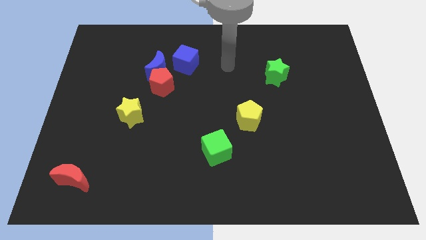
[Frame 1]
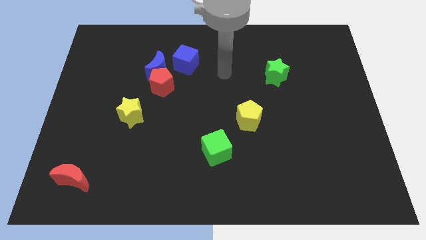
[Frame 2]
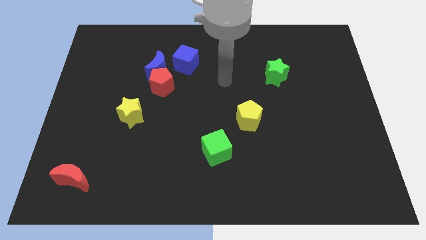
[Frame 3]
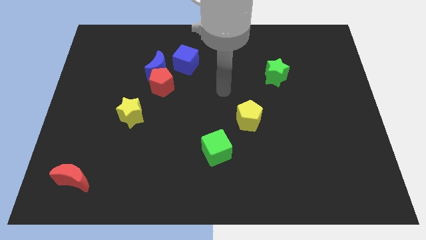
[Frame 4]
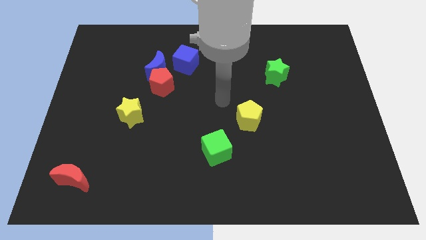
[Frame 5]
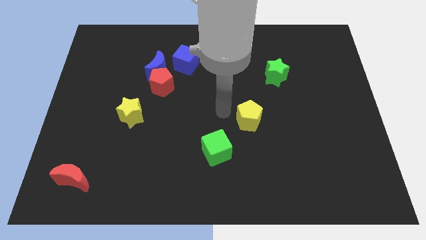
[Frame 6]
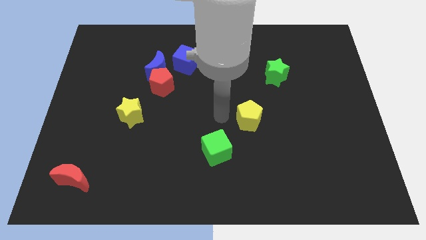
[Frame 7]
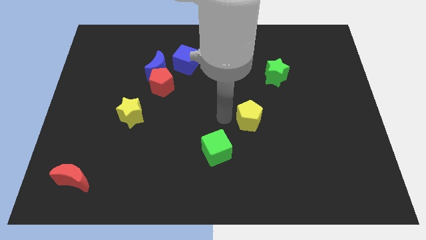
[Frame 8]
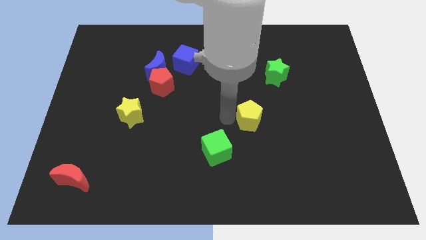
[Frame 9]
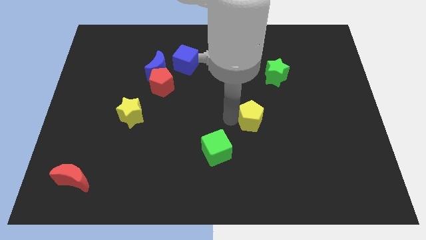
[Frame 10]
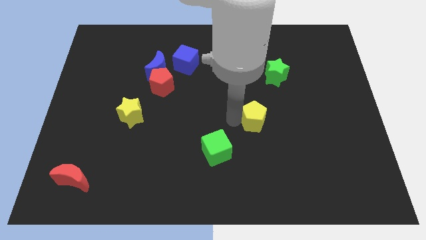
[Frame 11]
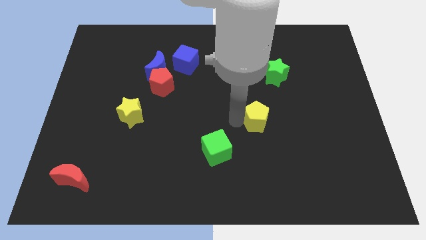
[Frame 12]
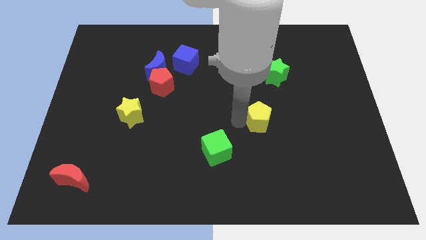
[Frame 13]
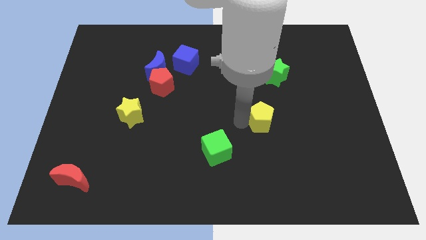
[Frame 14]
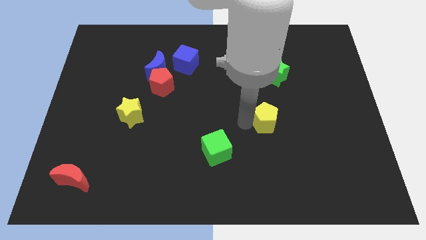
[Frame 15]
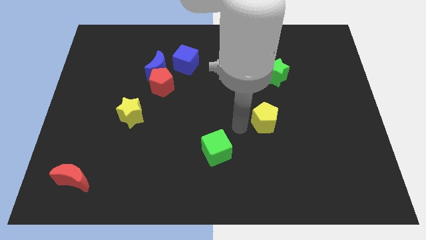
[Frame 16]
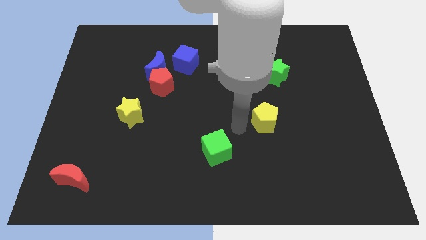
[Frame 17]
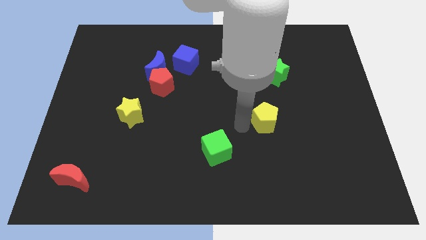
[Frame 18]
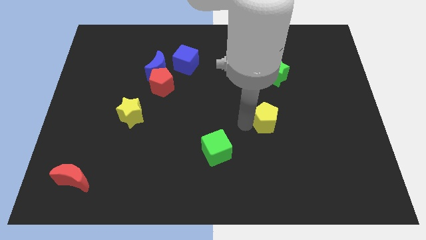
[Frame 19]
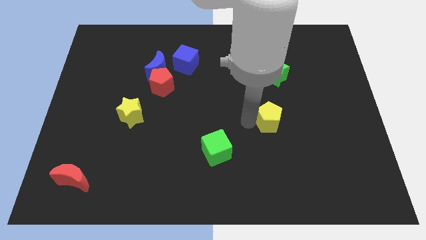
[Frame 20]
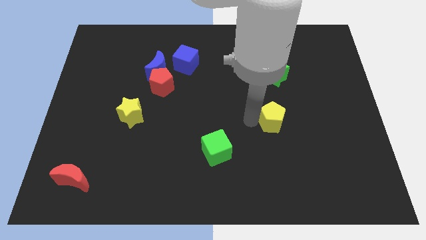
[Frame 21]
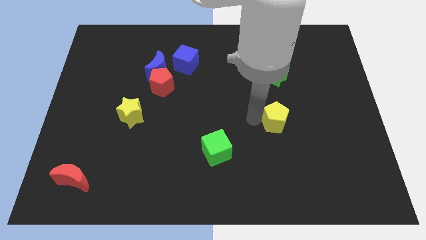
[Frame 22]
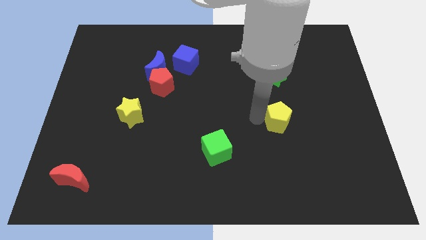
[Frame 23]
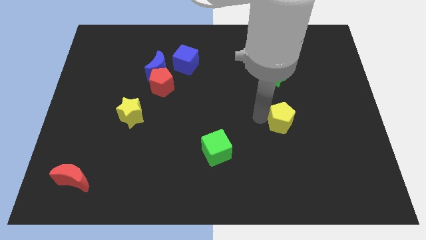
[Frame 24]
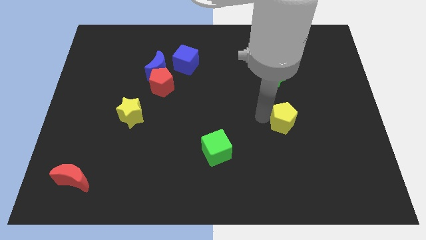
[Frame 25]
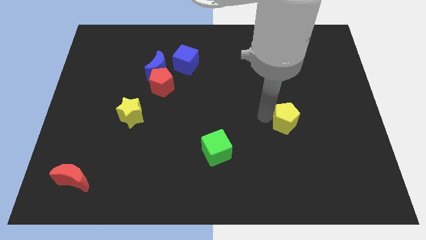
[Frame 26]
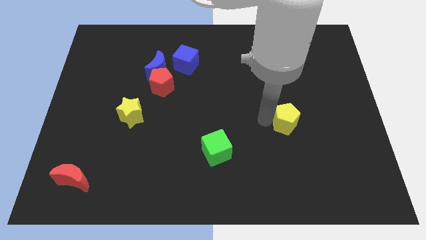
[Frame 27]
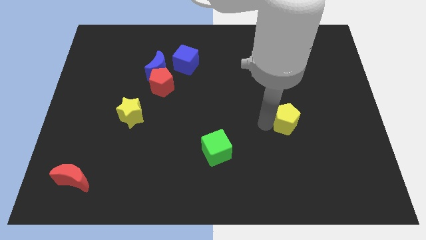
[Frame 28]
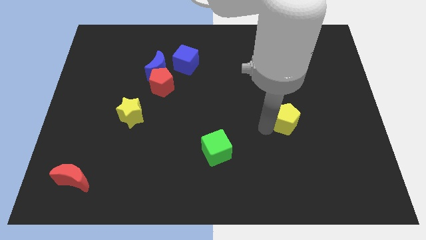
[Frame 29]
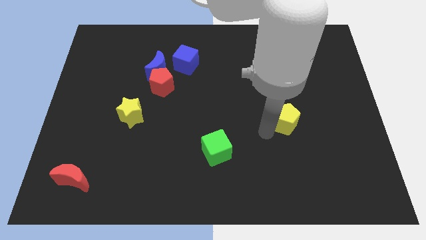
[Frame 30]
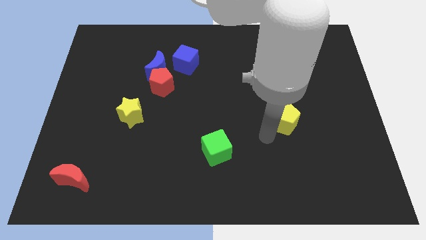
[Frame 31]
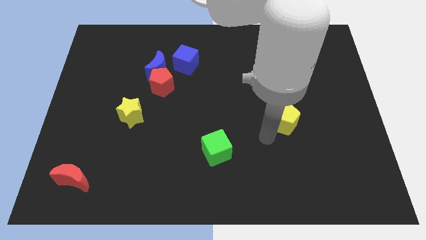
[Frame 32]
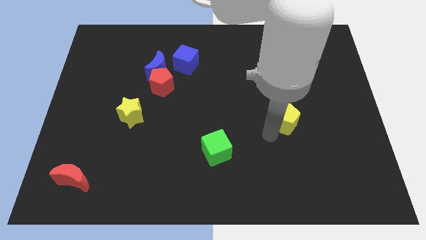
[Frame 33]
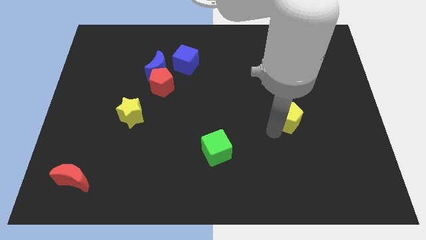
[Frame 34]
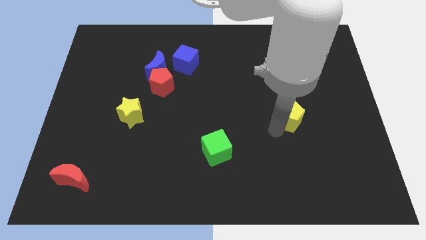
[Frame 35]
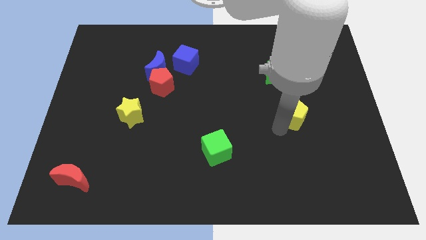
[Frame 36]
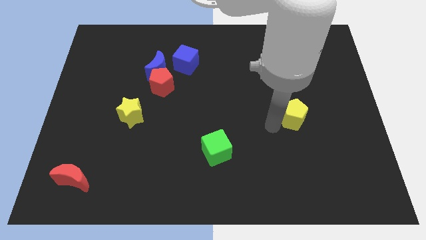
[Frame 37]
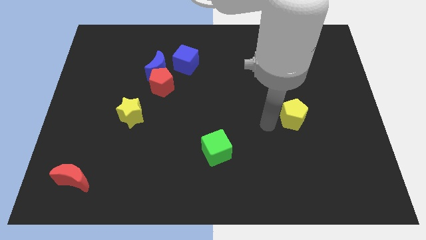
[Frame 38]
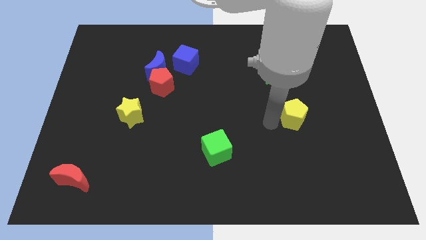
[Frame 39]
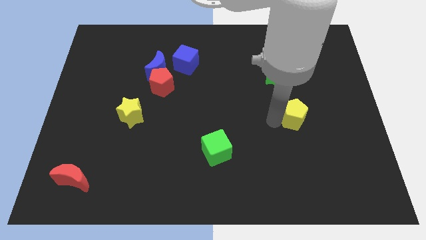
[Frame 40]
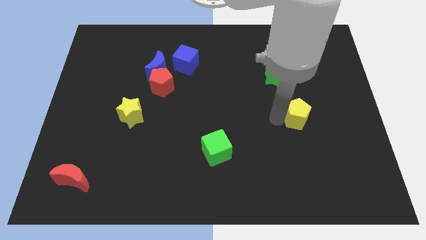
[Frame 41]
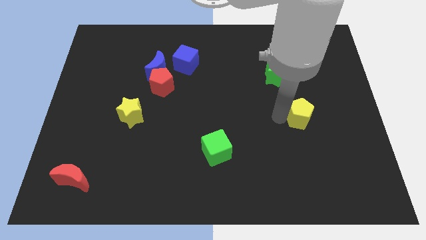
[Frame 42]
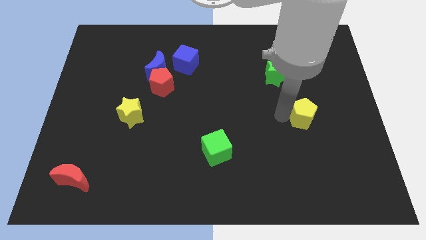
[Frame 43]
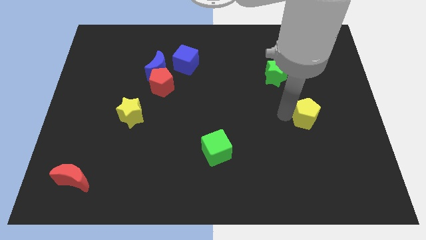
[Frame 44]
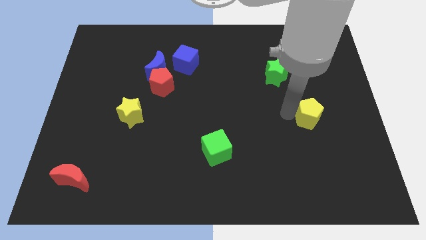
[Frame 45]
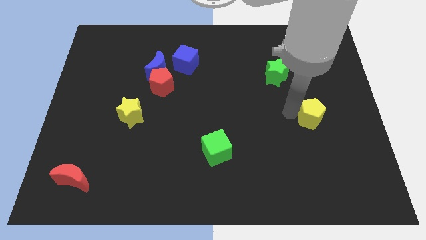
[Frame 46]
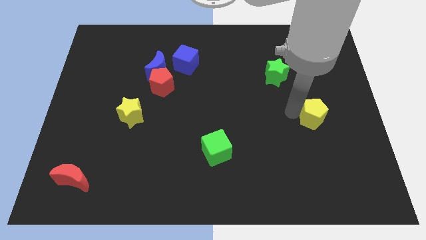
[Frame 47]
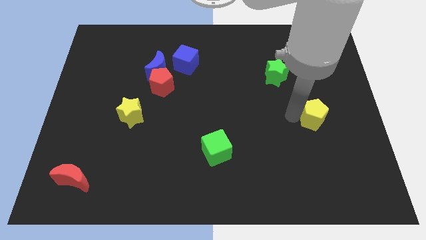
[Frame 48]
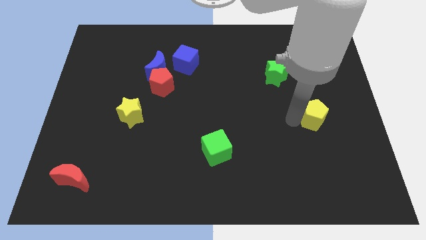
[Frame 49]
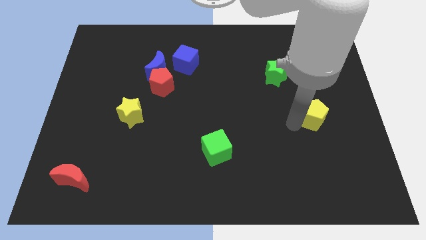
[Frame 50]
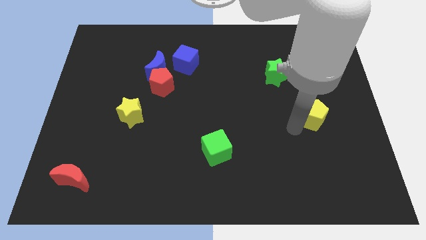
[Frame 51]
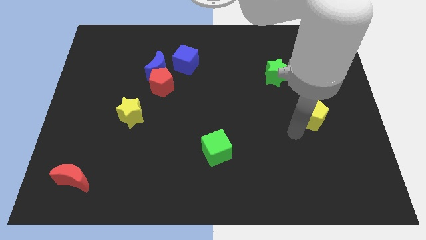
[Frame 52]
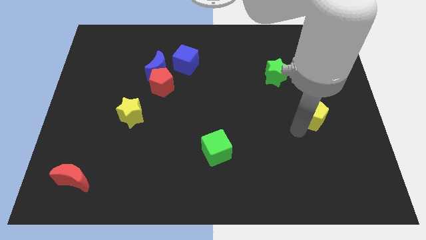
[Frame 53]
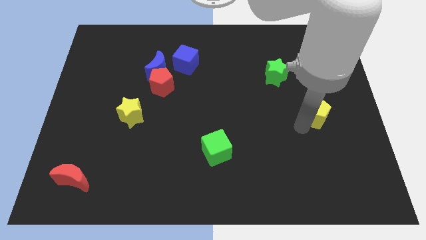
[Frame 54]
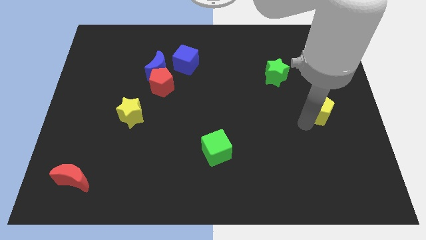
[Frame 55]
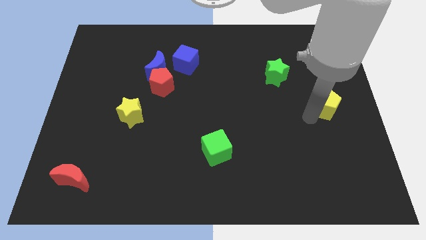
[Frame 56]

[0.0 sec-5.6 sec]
push the yellow pentagon to the center right

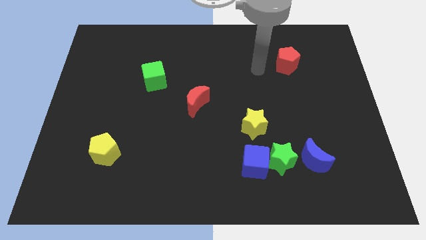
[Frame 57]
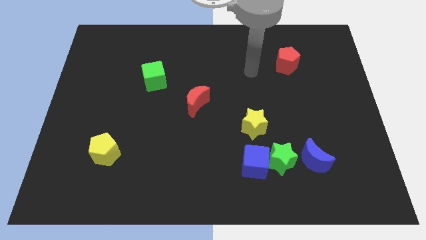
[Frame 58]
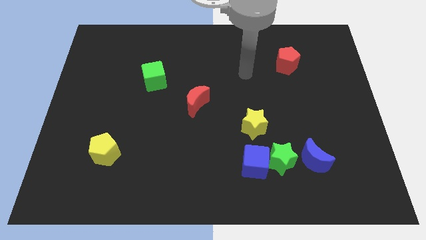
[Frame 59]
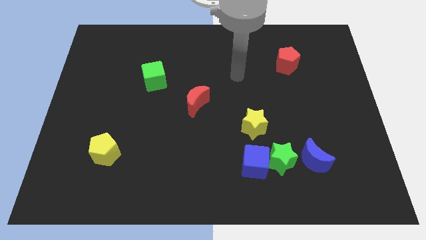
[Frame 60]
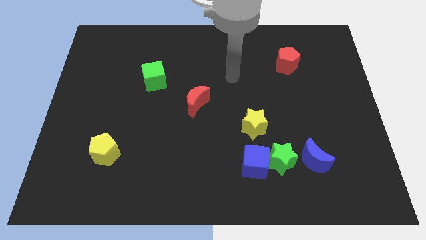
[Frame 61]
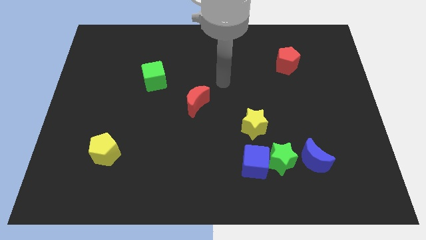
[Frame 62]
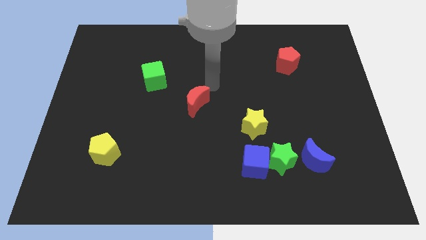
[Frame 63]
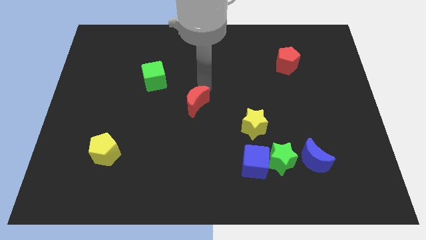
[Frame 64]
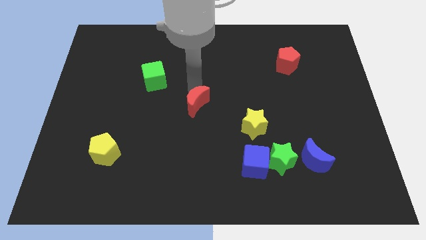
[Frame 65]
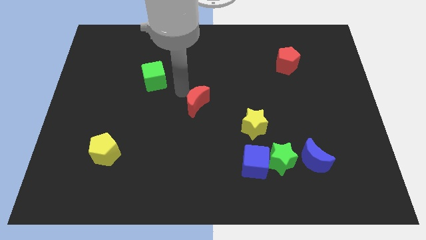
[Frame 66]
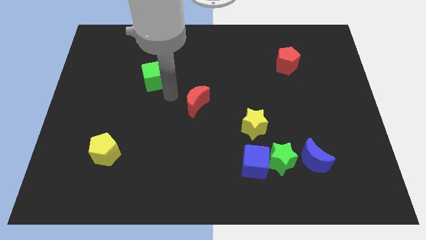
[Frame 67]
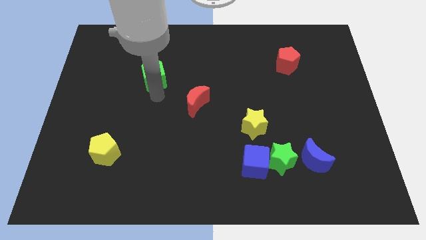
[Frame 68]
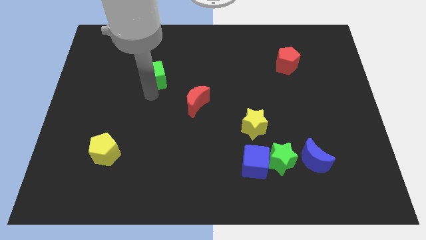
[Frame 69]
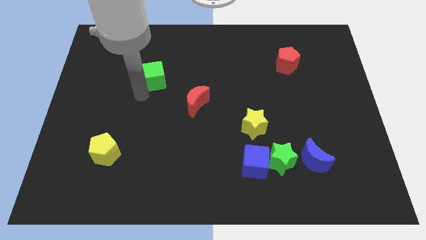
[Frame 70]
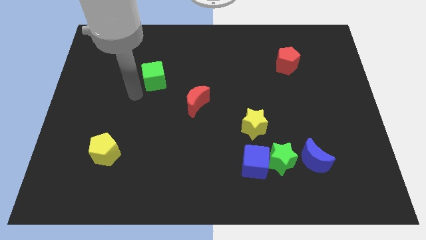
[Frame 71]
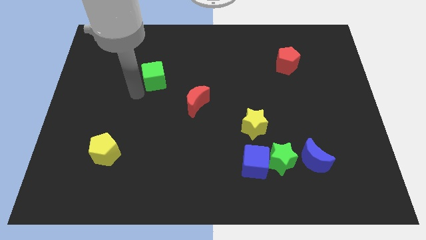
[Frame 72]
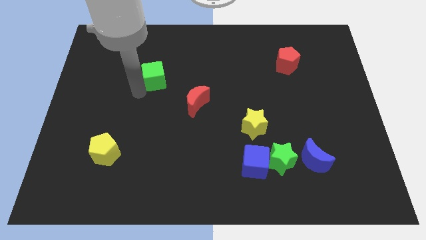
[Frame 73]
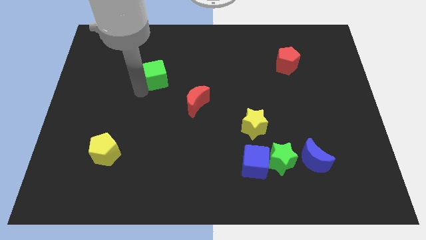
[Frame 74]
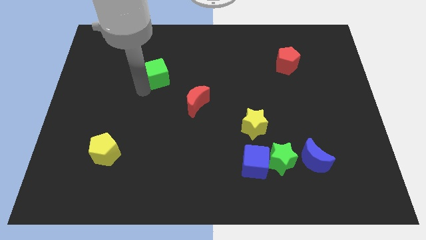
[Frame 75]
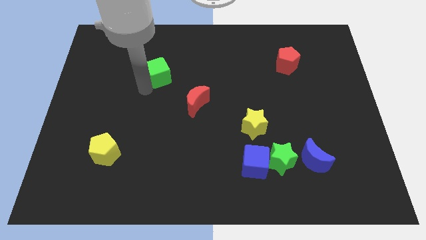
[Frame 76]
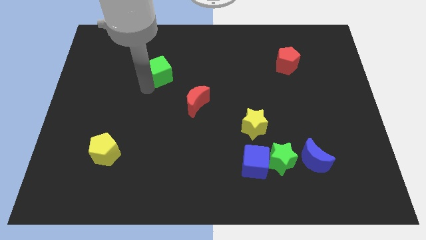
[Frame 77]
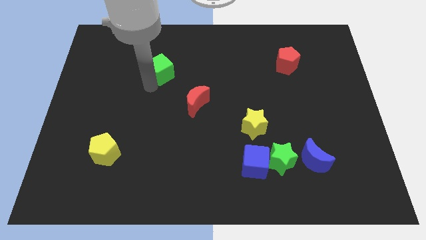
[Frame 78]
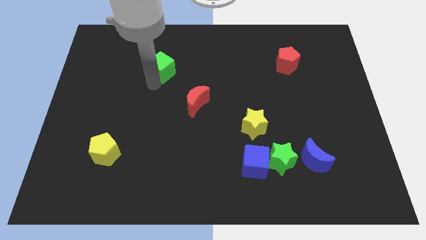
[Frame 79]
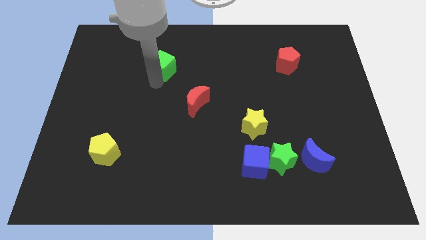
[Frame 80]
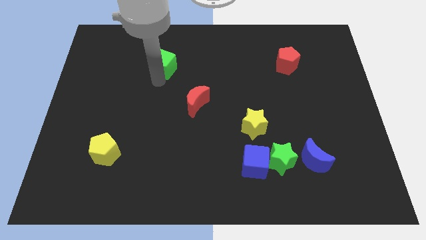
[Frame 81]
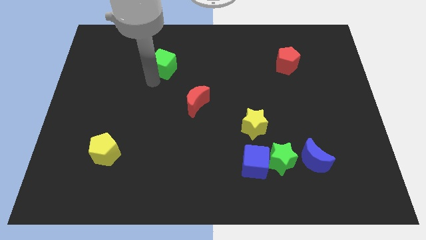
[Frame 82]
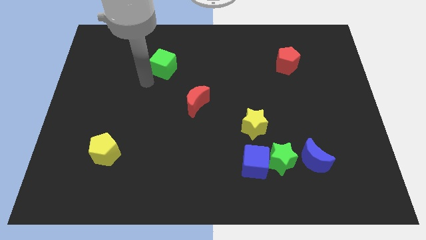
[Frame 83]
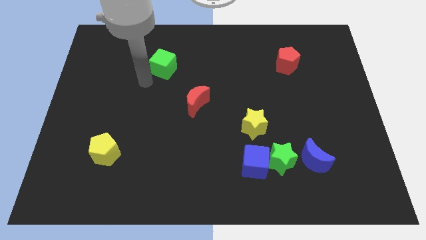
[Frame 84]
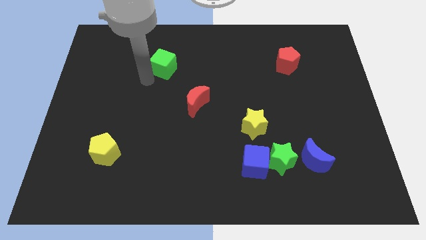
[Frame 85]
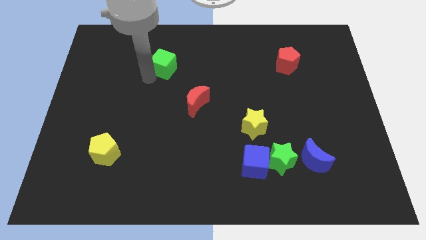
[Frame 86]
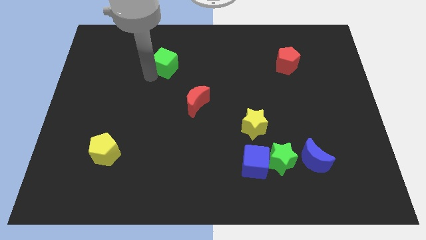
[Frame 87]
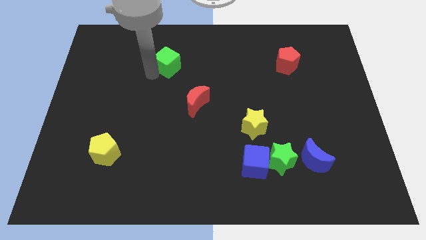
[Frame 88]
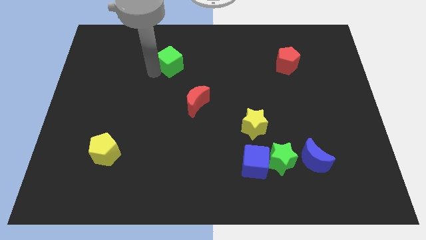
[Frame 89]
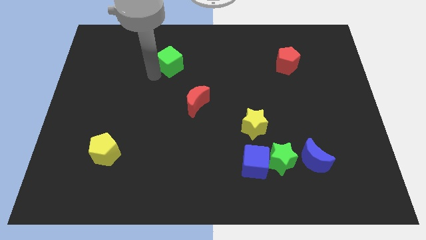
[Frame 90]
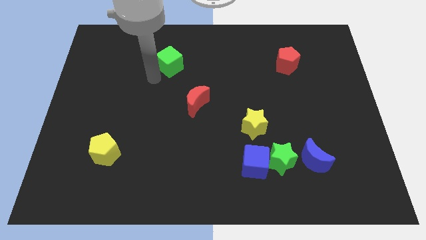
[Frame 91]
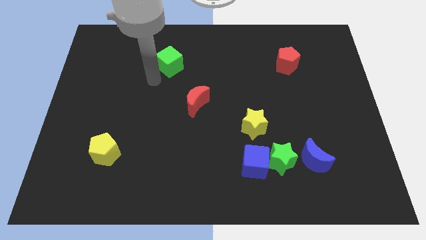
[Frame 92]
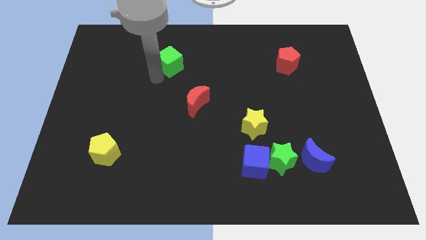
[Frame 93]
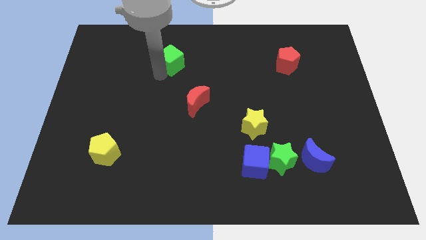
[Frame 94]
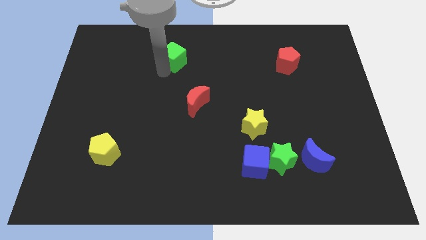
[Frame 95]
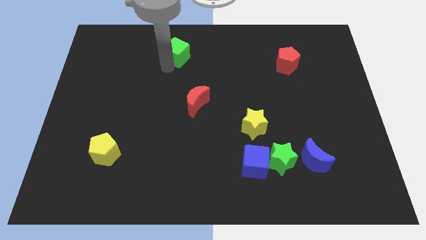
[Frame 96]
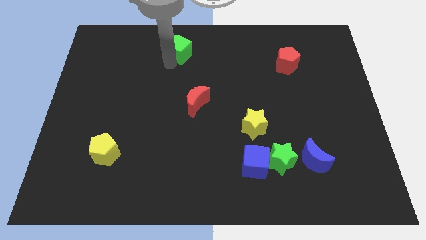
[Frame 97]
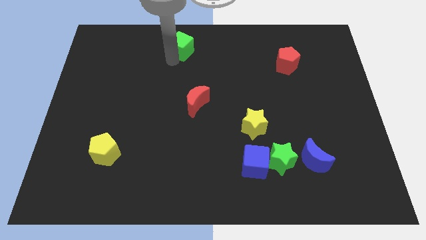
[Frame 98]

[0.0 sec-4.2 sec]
push the green cube to the top
